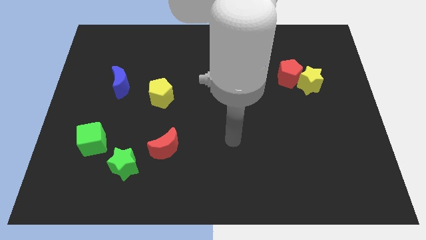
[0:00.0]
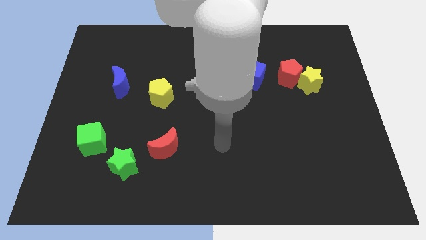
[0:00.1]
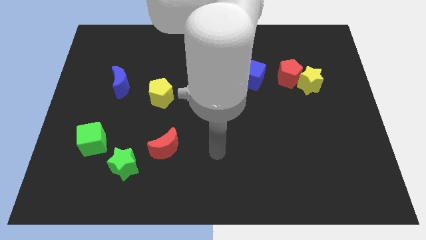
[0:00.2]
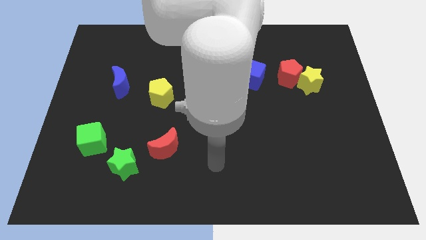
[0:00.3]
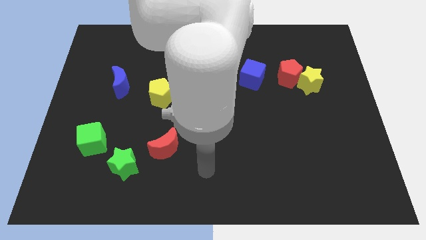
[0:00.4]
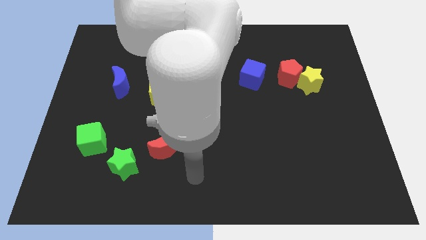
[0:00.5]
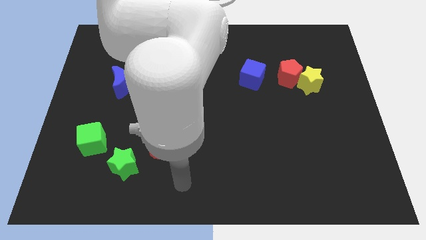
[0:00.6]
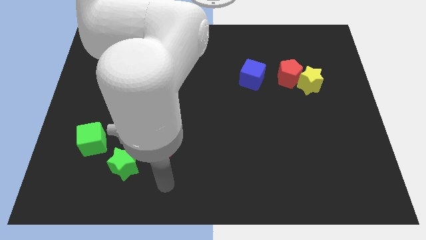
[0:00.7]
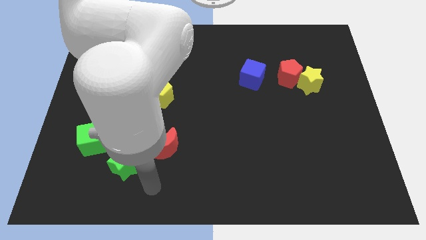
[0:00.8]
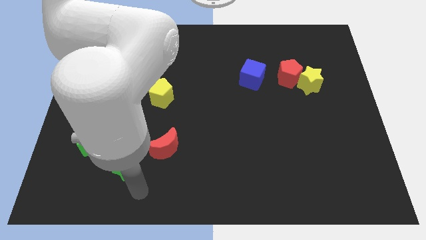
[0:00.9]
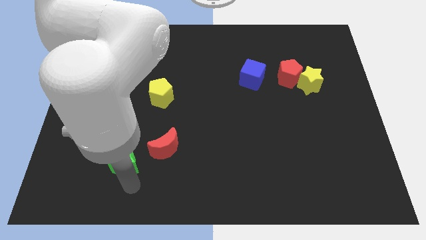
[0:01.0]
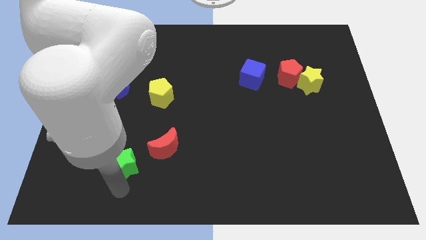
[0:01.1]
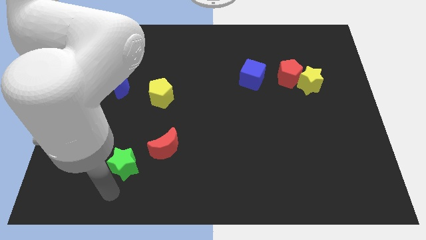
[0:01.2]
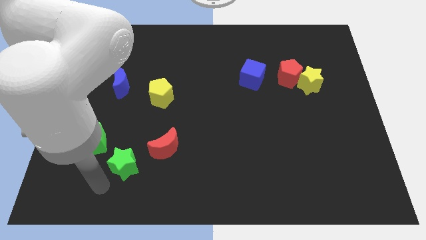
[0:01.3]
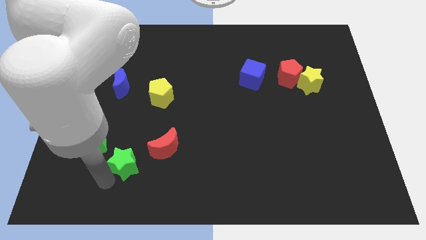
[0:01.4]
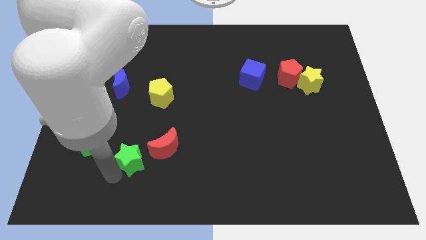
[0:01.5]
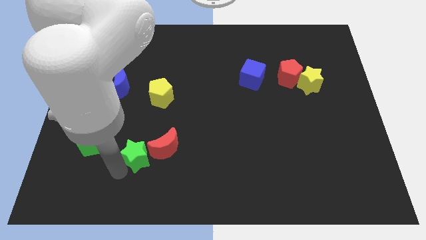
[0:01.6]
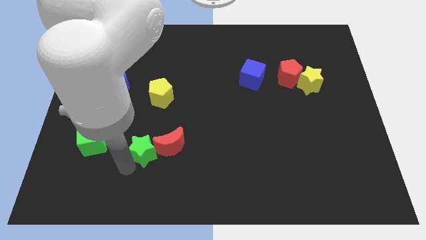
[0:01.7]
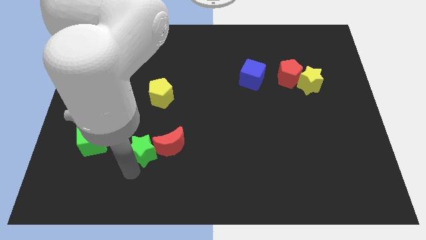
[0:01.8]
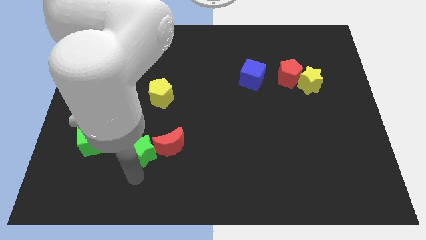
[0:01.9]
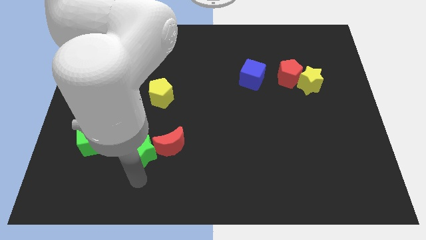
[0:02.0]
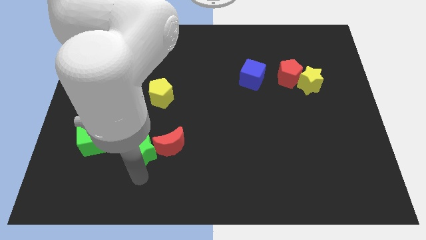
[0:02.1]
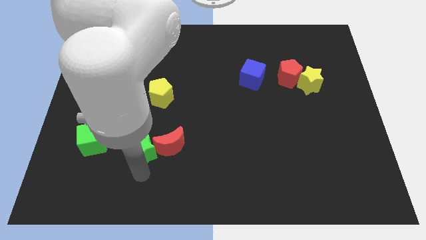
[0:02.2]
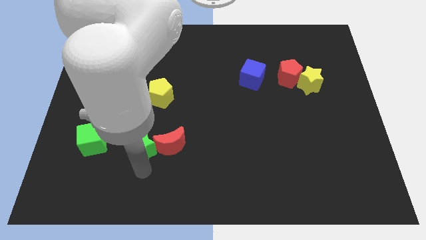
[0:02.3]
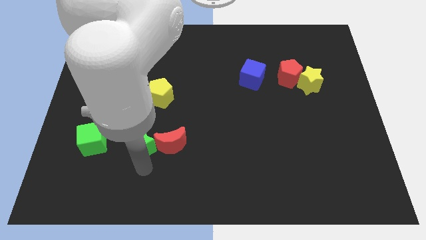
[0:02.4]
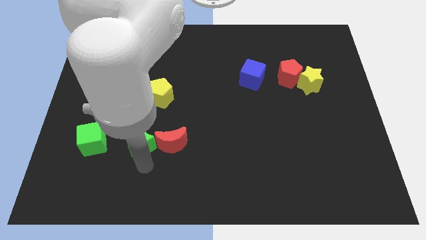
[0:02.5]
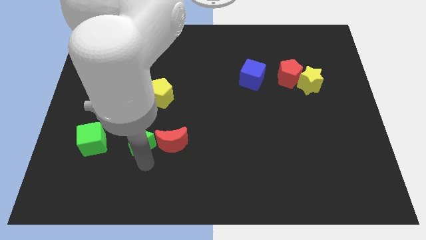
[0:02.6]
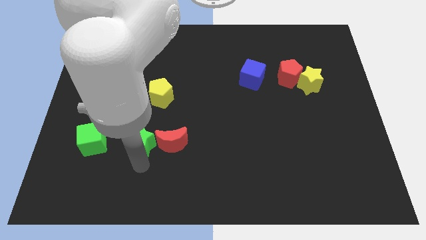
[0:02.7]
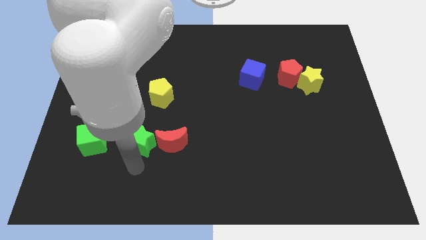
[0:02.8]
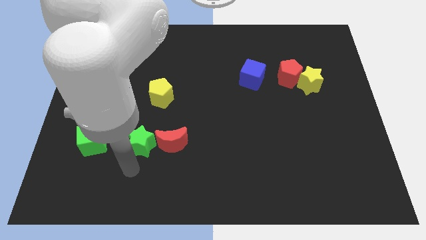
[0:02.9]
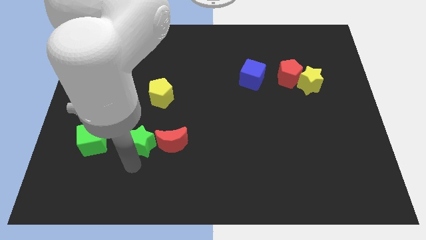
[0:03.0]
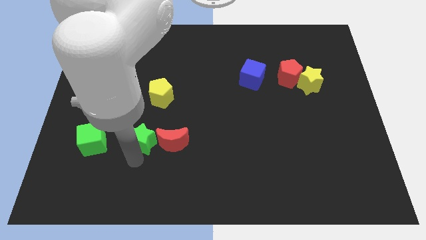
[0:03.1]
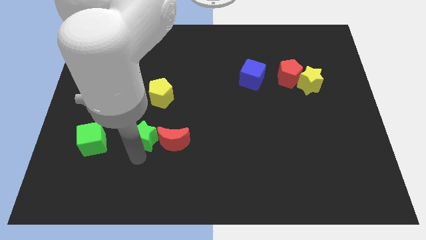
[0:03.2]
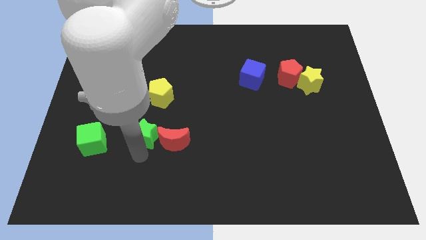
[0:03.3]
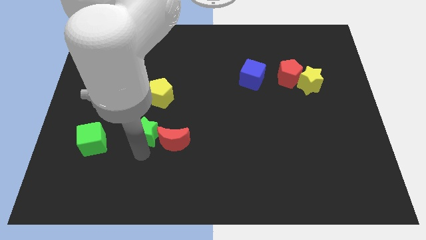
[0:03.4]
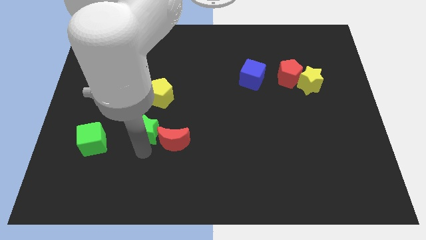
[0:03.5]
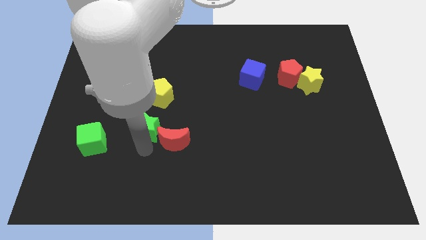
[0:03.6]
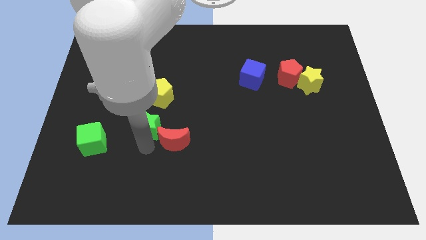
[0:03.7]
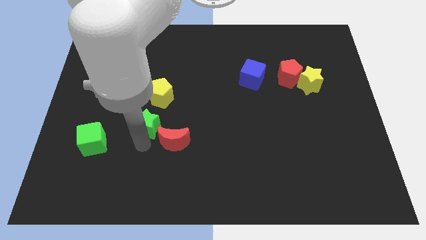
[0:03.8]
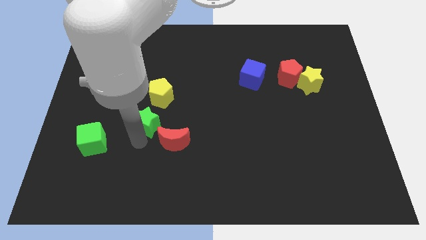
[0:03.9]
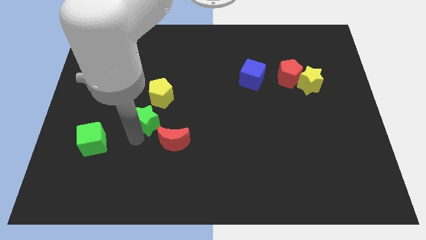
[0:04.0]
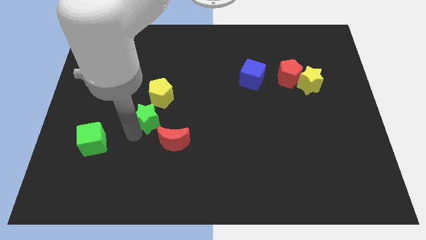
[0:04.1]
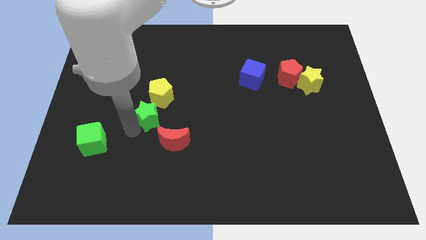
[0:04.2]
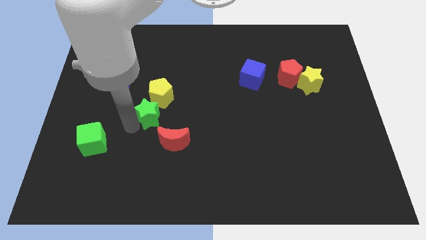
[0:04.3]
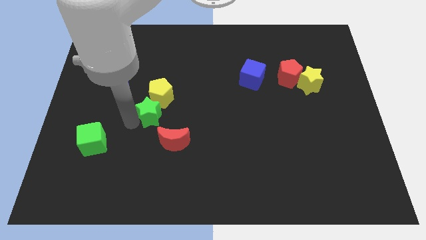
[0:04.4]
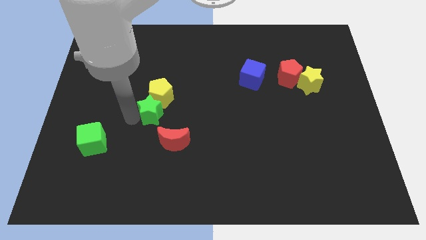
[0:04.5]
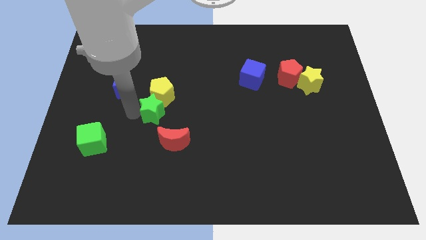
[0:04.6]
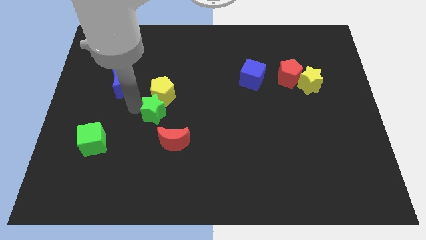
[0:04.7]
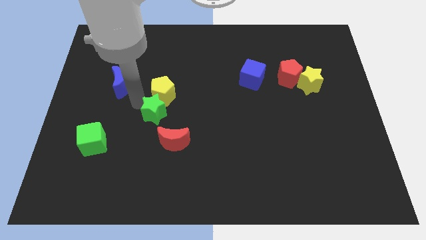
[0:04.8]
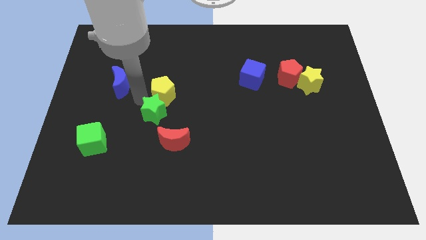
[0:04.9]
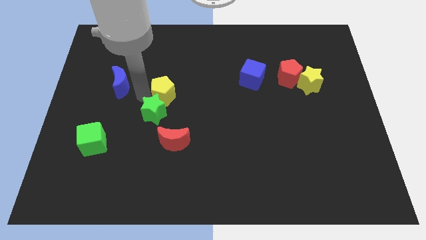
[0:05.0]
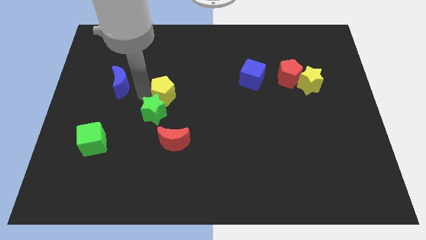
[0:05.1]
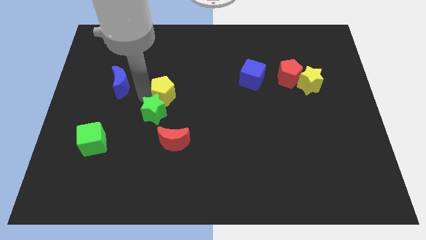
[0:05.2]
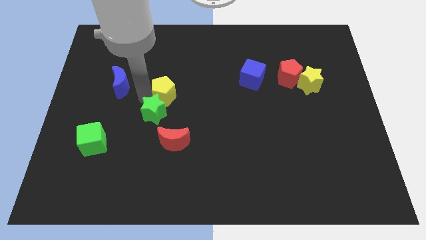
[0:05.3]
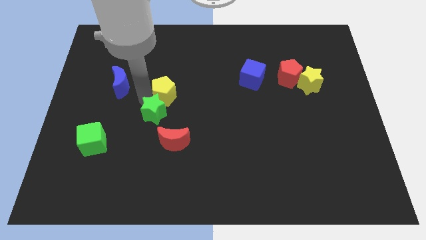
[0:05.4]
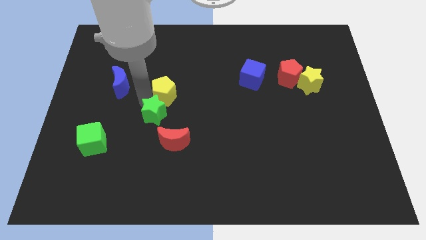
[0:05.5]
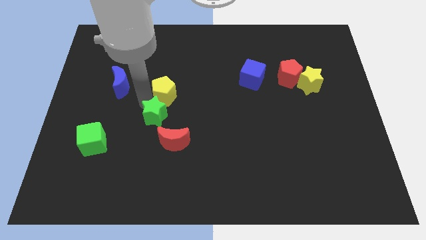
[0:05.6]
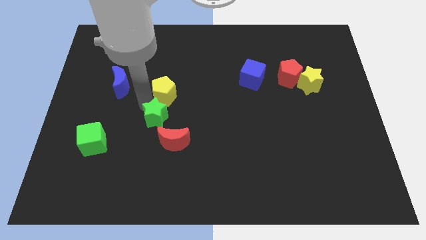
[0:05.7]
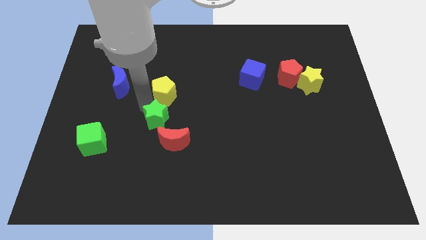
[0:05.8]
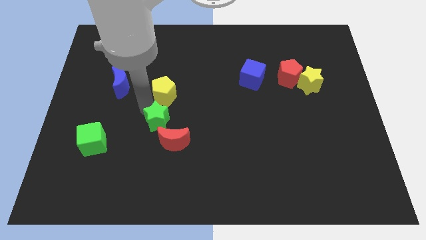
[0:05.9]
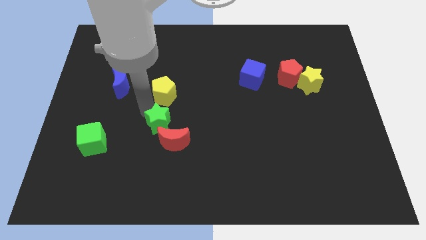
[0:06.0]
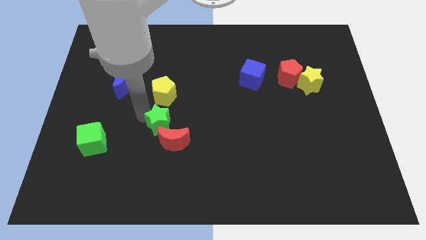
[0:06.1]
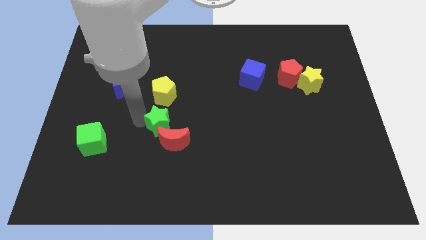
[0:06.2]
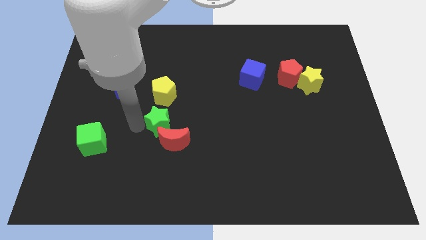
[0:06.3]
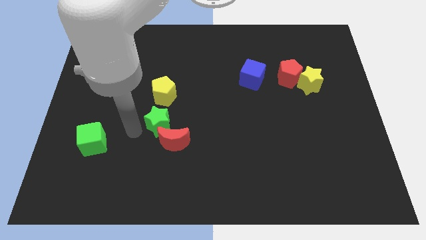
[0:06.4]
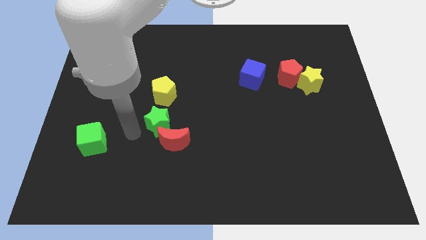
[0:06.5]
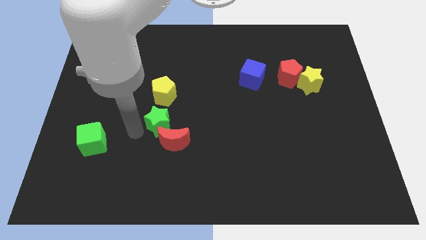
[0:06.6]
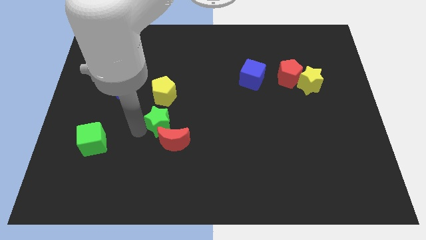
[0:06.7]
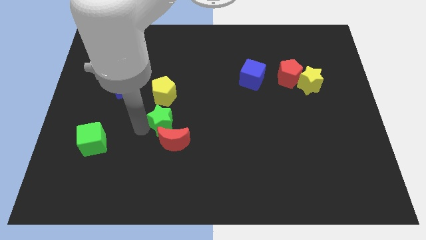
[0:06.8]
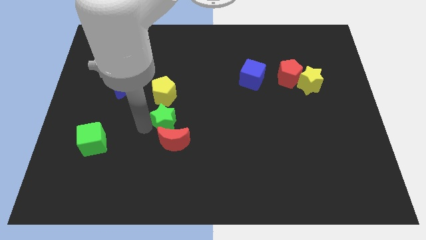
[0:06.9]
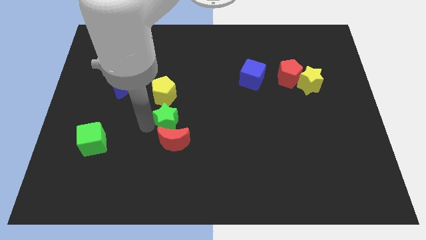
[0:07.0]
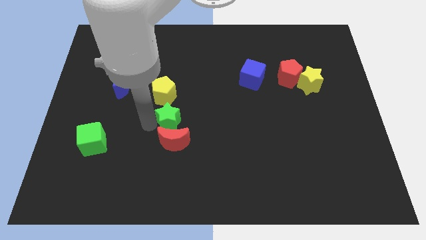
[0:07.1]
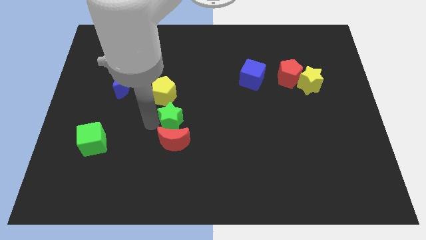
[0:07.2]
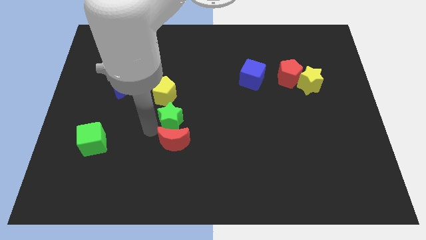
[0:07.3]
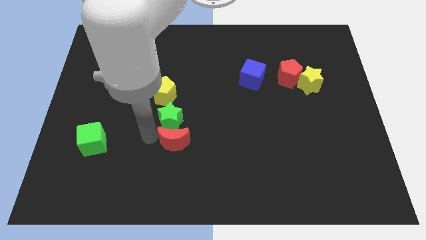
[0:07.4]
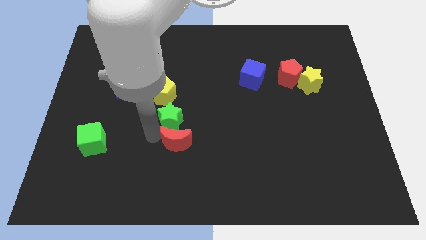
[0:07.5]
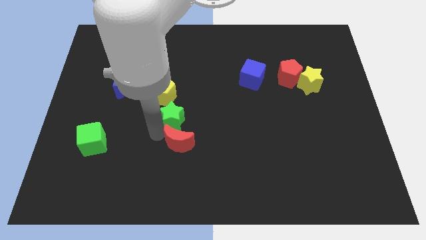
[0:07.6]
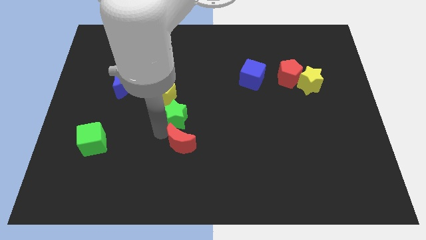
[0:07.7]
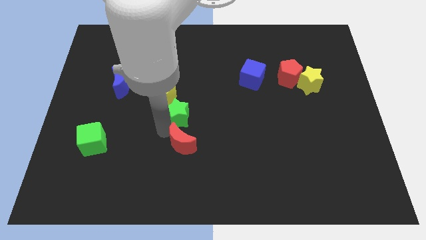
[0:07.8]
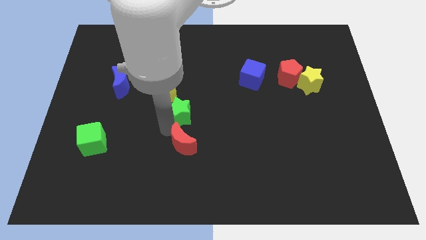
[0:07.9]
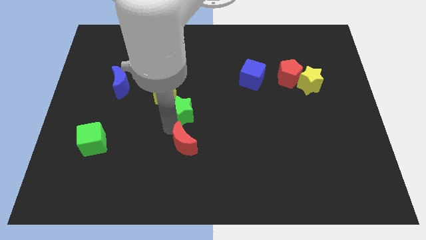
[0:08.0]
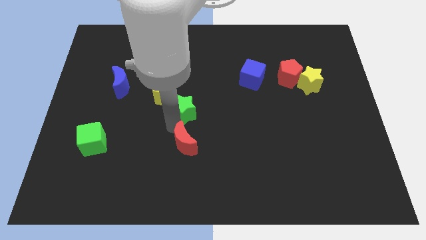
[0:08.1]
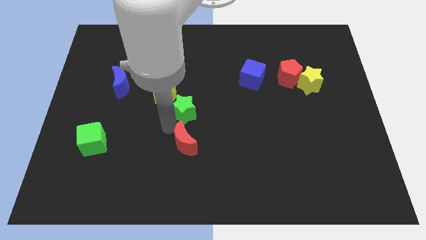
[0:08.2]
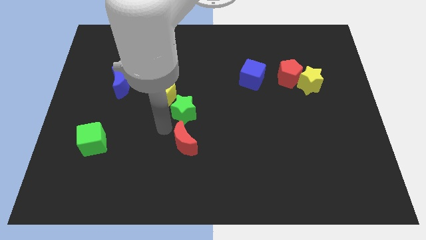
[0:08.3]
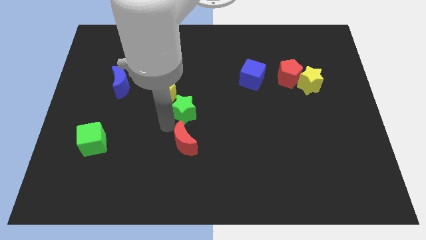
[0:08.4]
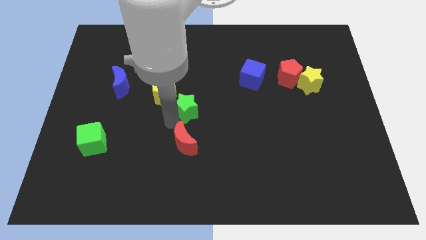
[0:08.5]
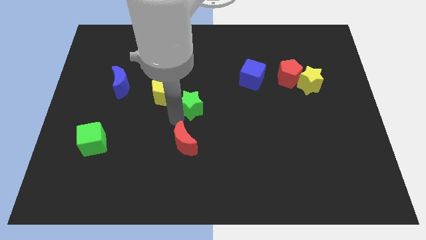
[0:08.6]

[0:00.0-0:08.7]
push the green star diagonally upwards and right
